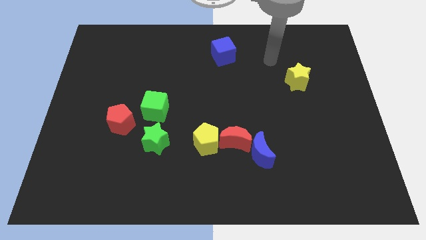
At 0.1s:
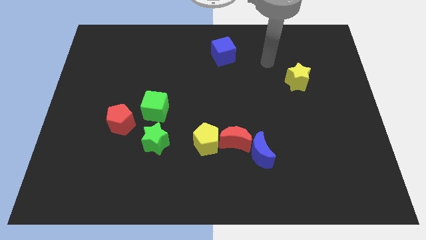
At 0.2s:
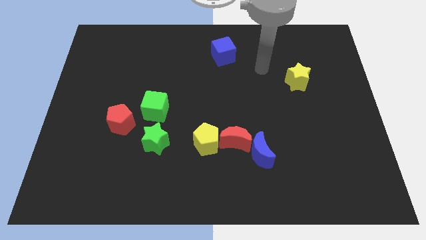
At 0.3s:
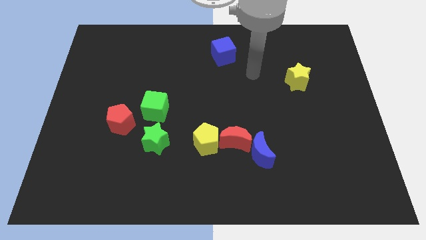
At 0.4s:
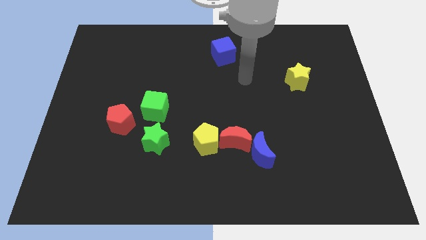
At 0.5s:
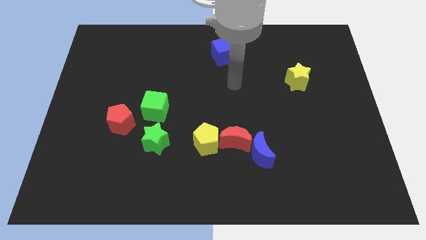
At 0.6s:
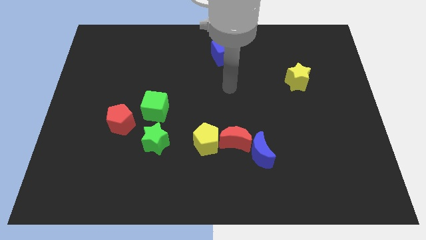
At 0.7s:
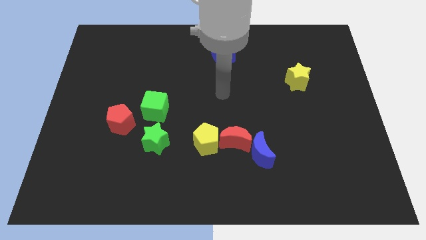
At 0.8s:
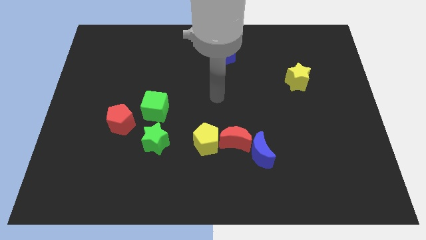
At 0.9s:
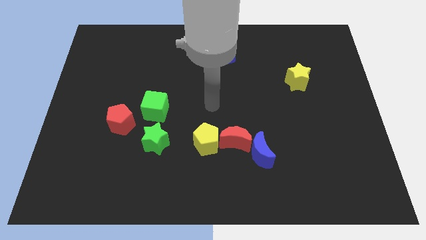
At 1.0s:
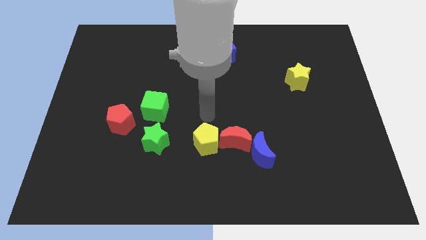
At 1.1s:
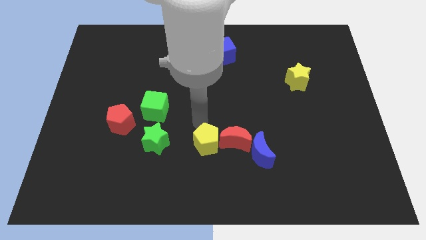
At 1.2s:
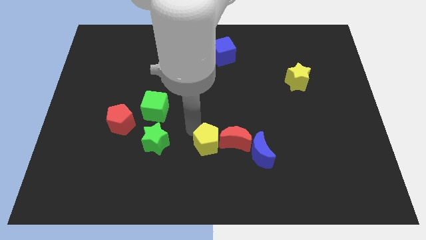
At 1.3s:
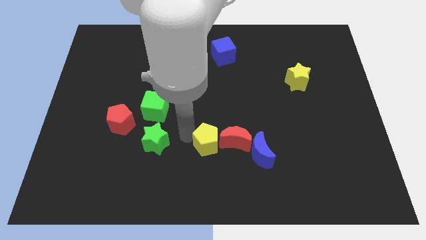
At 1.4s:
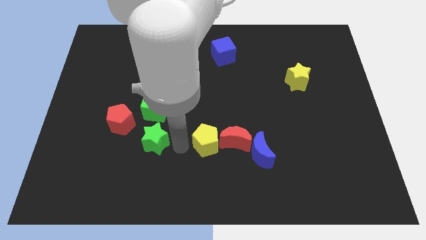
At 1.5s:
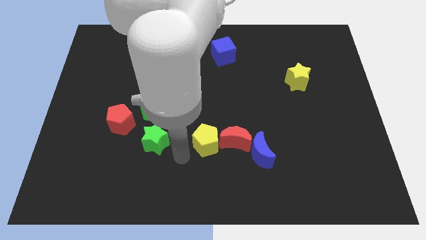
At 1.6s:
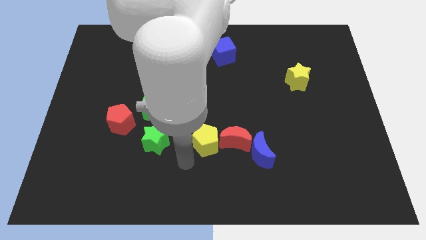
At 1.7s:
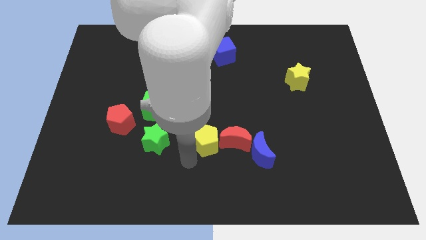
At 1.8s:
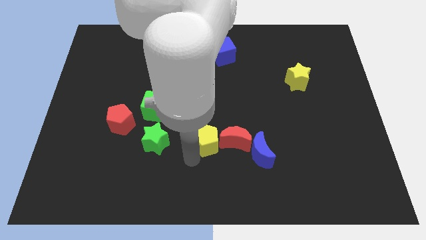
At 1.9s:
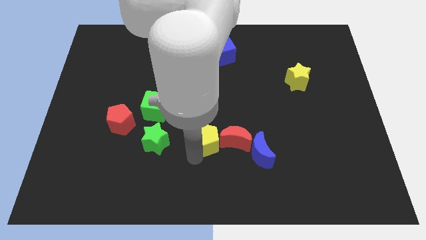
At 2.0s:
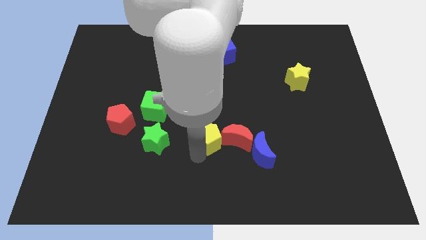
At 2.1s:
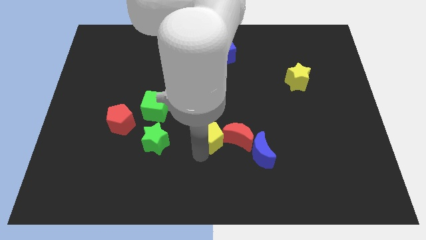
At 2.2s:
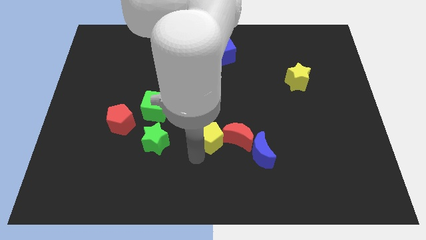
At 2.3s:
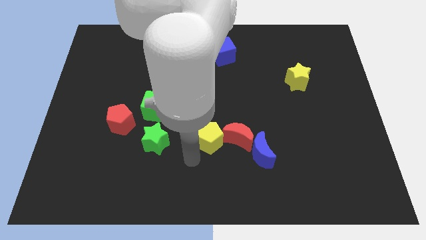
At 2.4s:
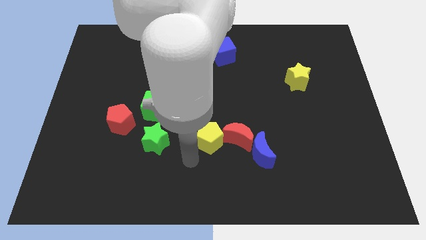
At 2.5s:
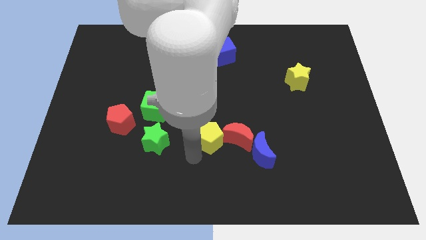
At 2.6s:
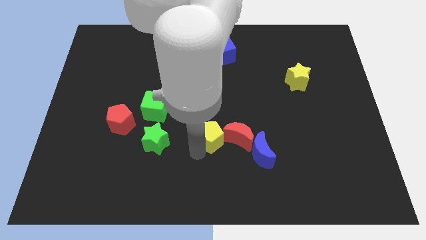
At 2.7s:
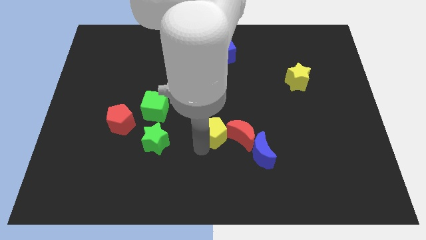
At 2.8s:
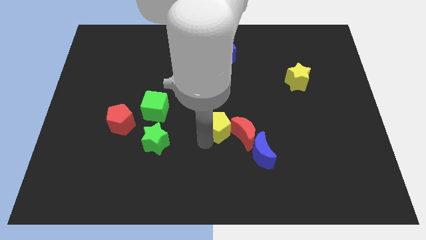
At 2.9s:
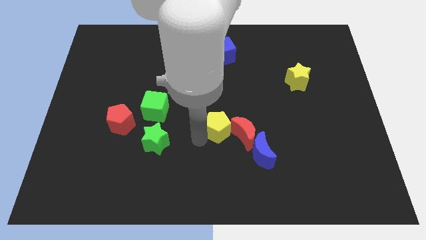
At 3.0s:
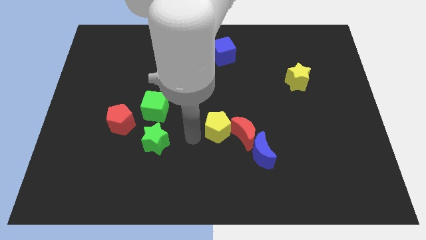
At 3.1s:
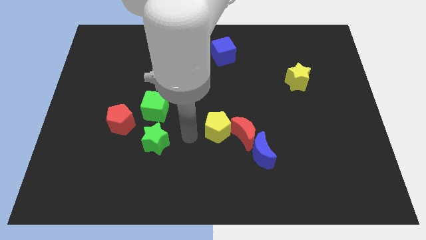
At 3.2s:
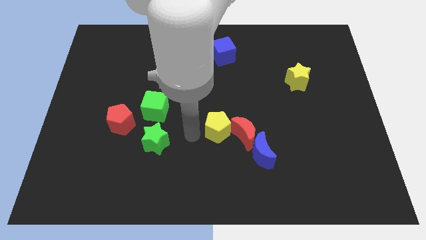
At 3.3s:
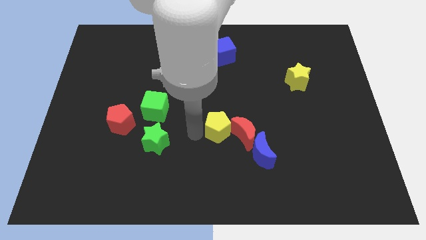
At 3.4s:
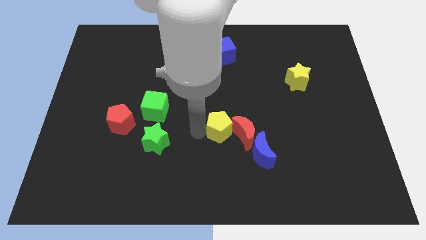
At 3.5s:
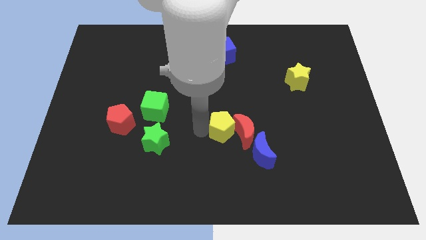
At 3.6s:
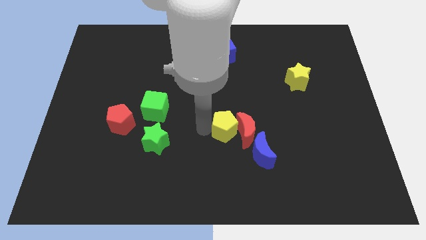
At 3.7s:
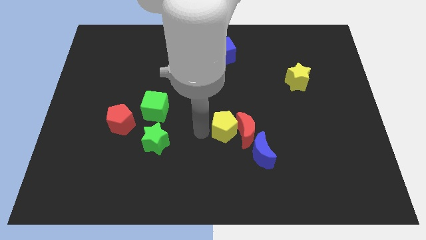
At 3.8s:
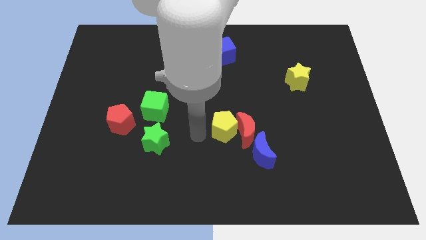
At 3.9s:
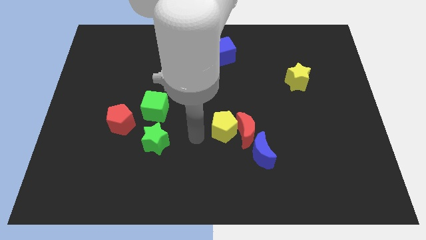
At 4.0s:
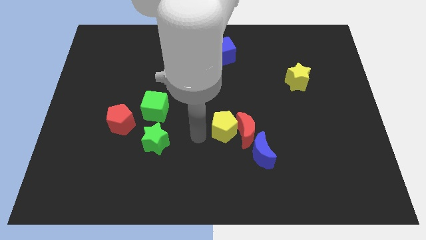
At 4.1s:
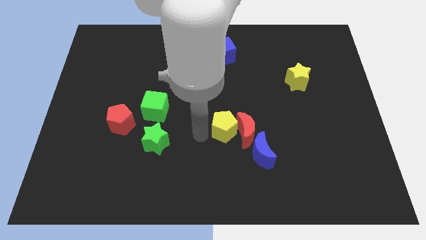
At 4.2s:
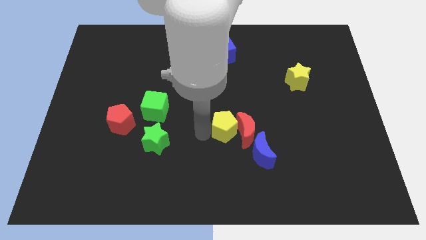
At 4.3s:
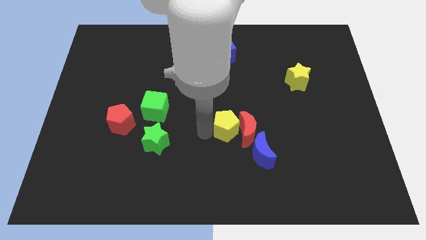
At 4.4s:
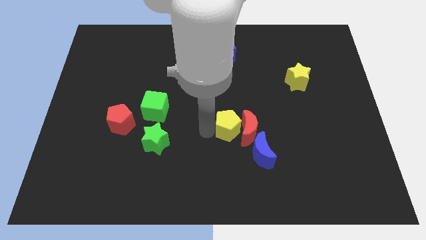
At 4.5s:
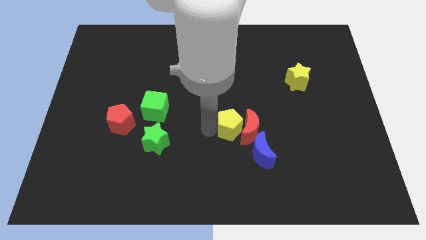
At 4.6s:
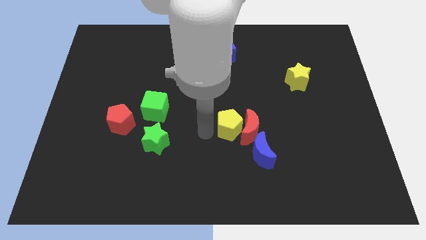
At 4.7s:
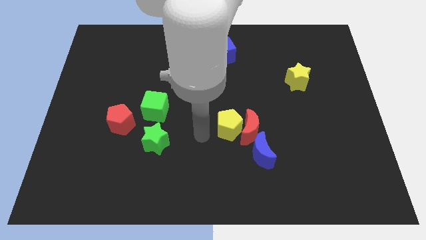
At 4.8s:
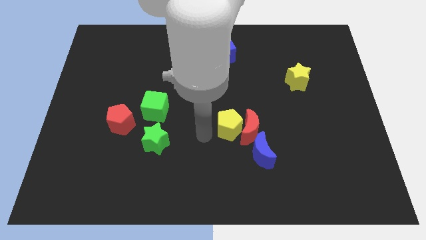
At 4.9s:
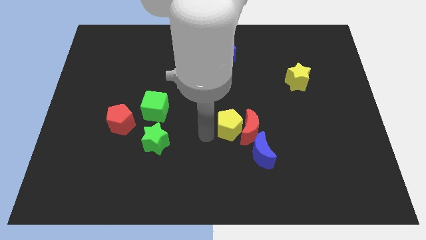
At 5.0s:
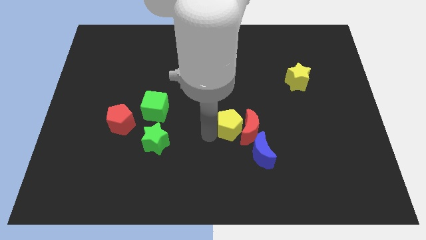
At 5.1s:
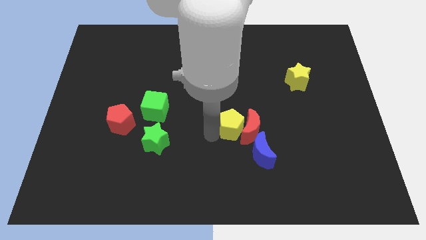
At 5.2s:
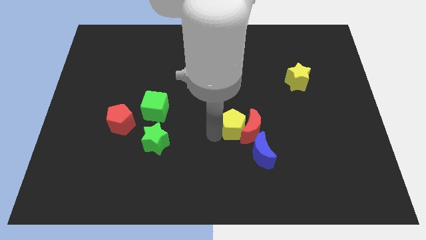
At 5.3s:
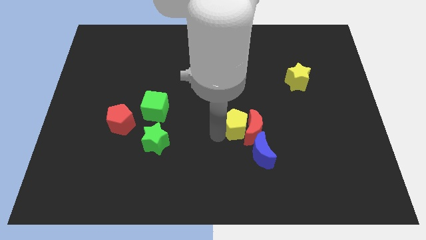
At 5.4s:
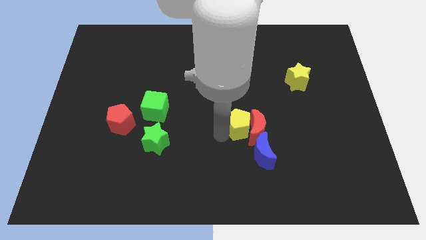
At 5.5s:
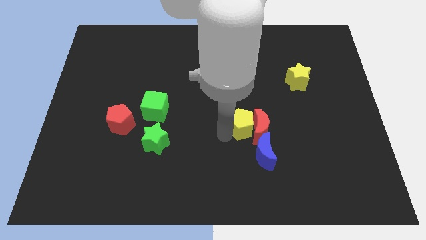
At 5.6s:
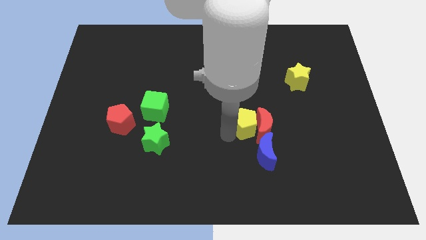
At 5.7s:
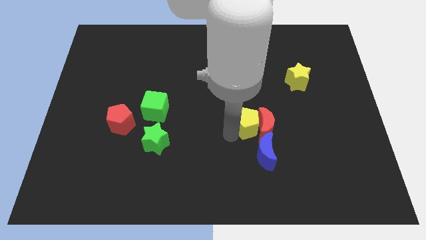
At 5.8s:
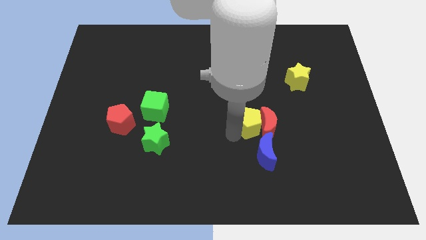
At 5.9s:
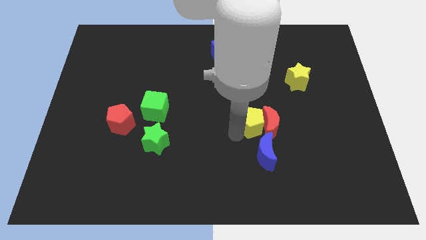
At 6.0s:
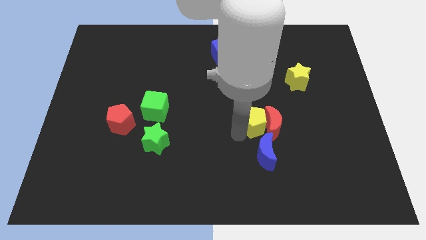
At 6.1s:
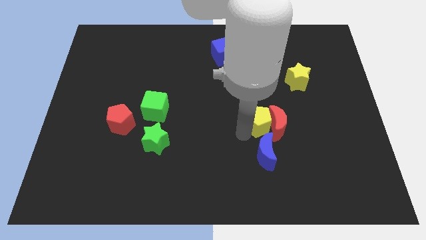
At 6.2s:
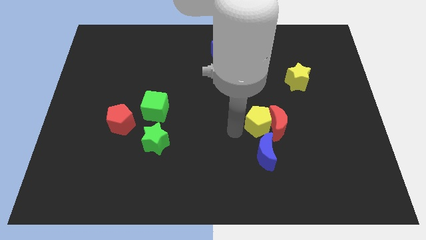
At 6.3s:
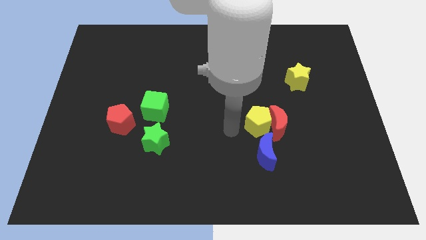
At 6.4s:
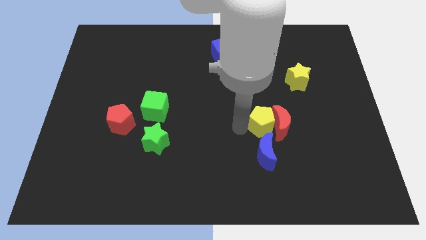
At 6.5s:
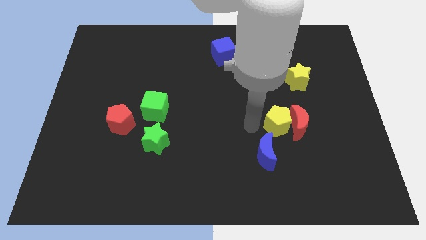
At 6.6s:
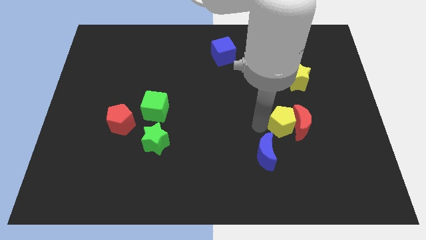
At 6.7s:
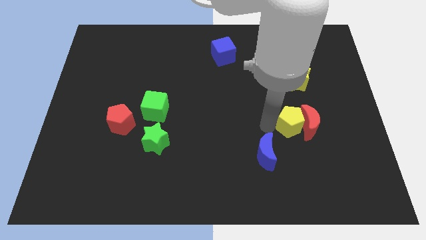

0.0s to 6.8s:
move the yellow pentagon to the bottom of the yellow star
